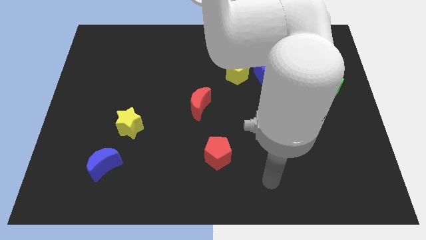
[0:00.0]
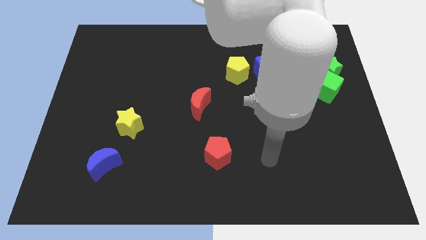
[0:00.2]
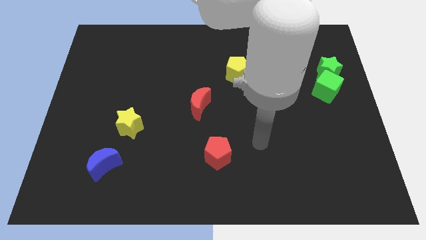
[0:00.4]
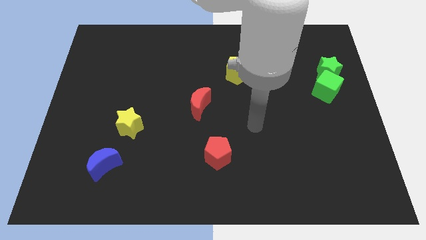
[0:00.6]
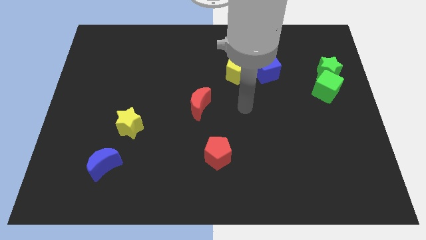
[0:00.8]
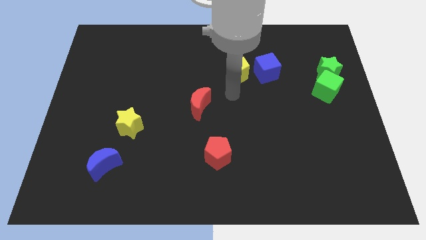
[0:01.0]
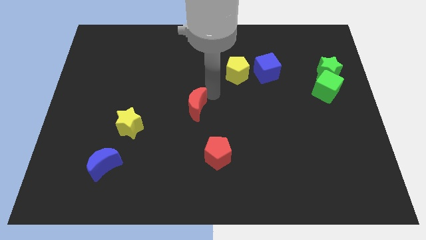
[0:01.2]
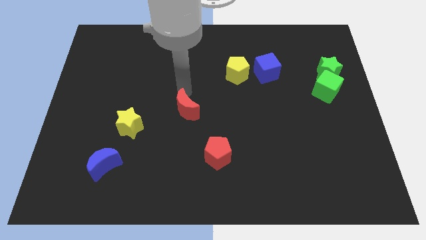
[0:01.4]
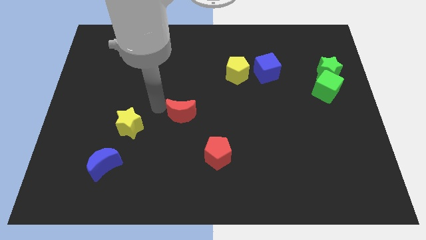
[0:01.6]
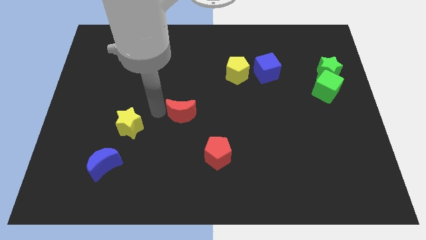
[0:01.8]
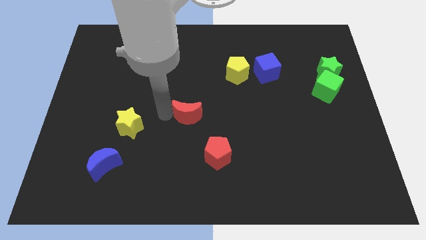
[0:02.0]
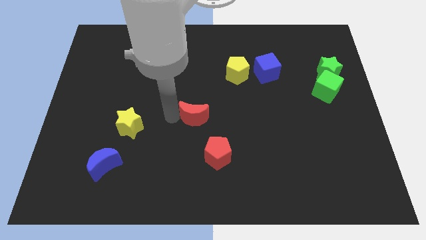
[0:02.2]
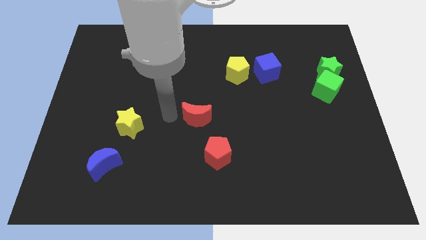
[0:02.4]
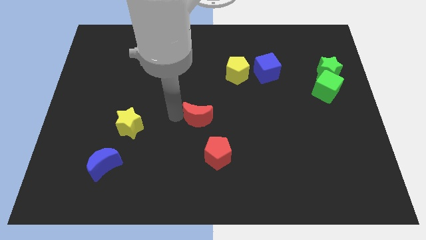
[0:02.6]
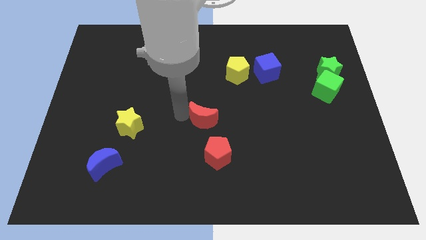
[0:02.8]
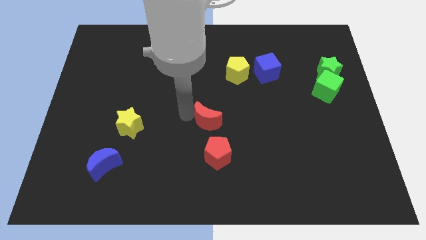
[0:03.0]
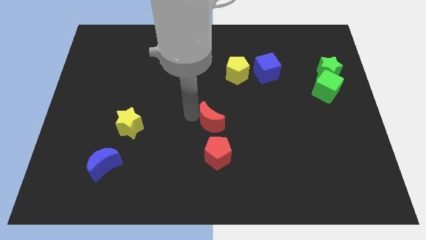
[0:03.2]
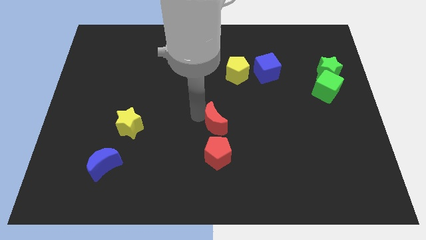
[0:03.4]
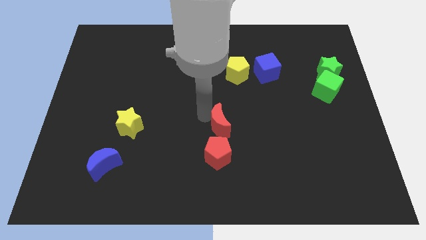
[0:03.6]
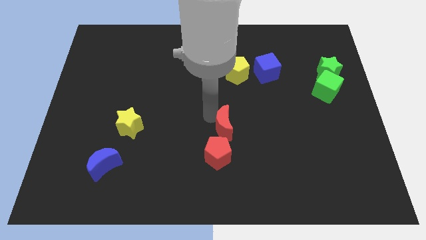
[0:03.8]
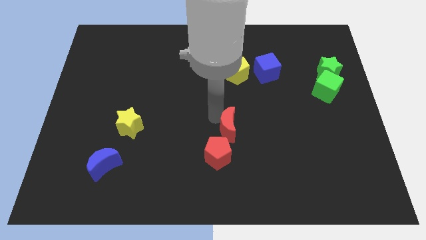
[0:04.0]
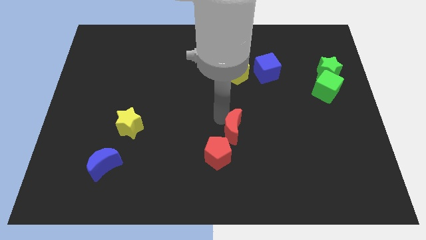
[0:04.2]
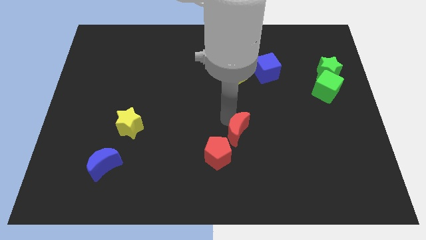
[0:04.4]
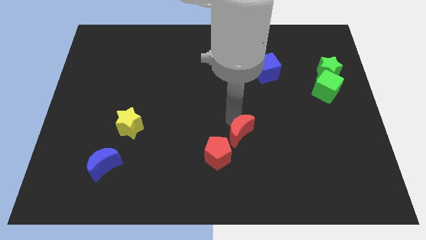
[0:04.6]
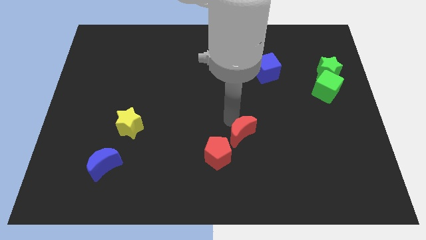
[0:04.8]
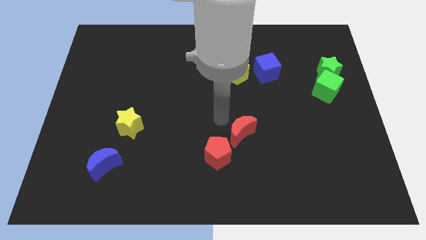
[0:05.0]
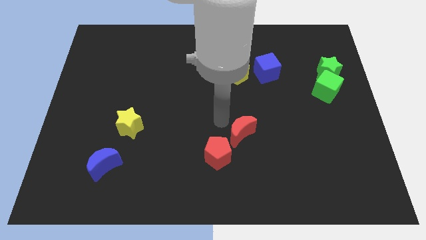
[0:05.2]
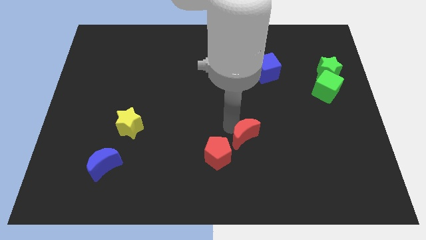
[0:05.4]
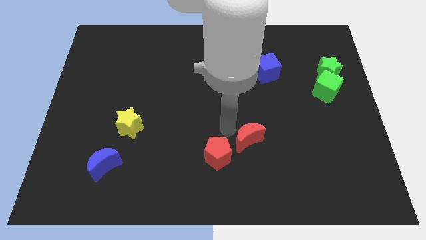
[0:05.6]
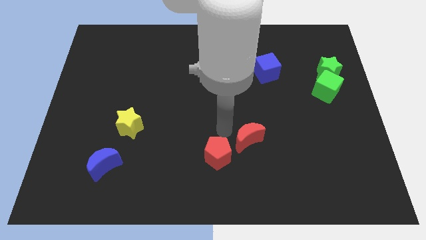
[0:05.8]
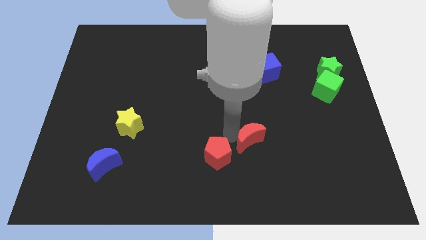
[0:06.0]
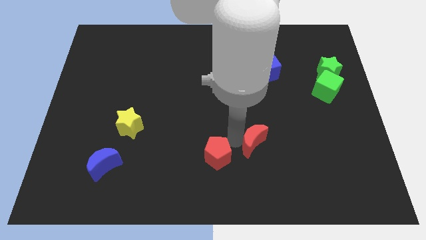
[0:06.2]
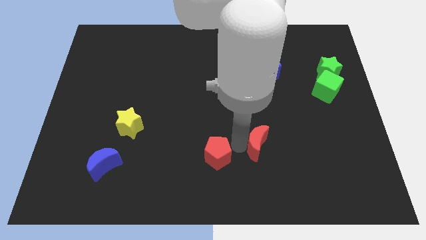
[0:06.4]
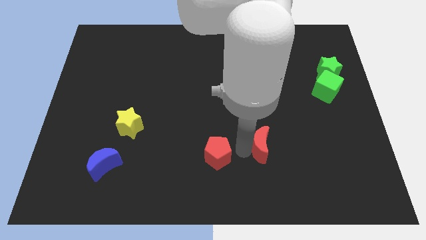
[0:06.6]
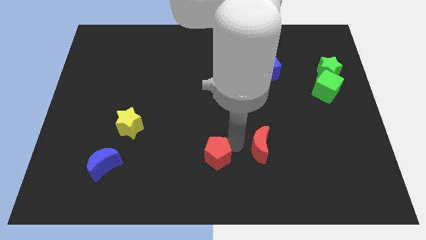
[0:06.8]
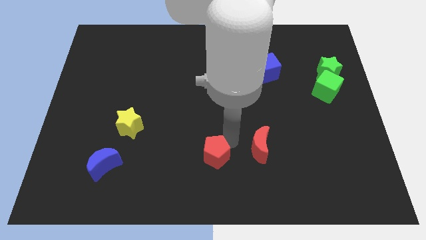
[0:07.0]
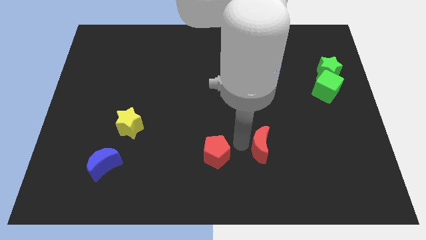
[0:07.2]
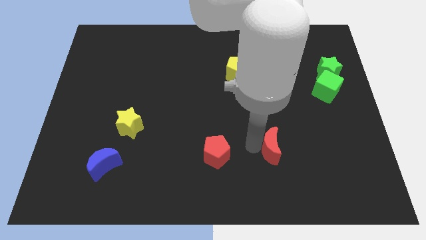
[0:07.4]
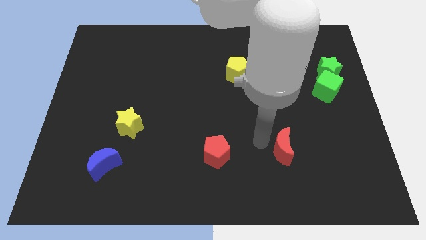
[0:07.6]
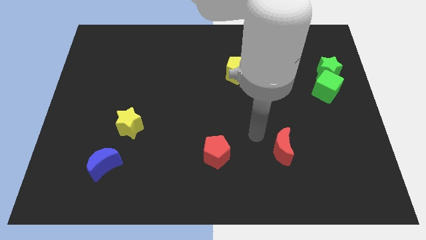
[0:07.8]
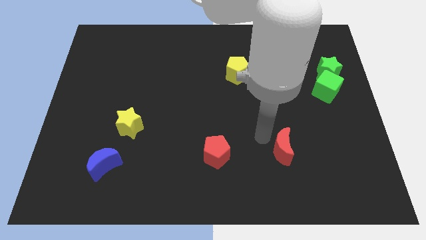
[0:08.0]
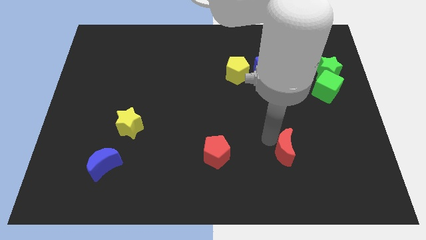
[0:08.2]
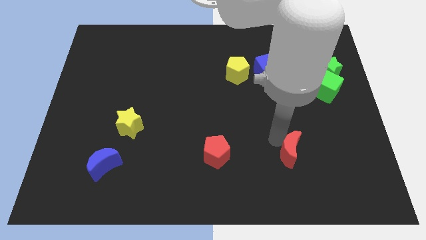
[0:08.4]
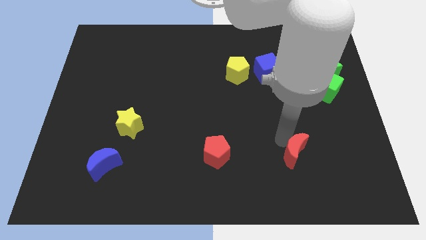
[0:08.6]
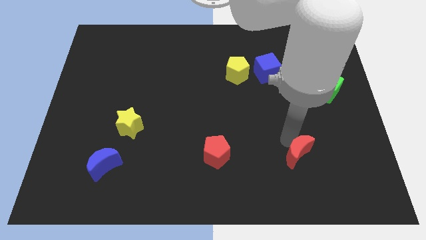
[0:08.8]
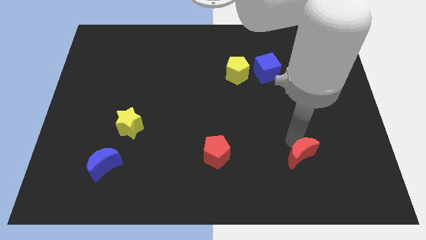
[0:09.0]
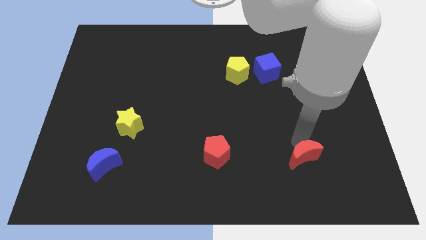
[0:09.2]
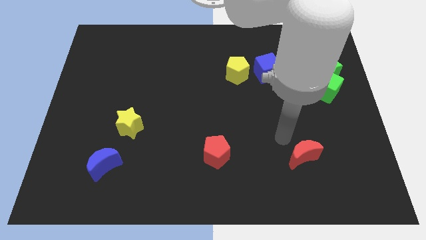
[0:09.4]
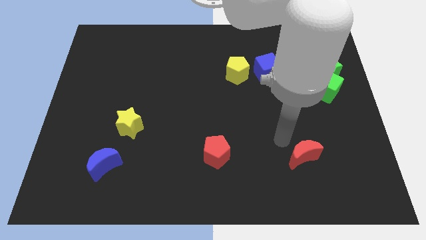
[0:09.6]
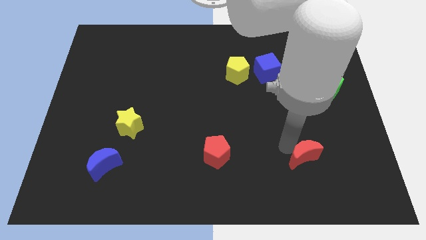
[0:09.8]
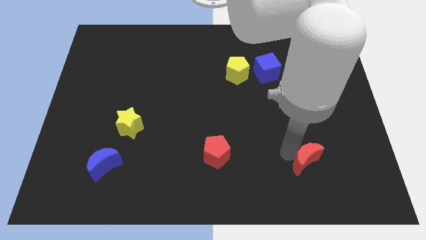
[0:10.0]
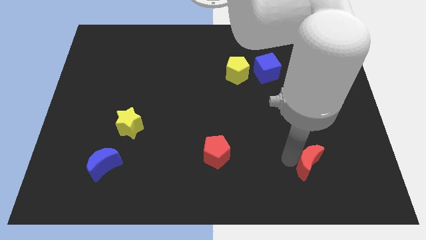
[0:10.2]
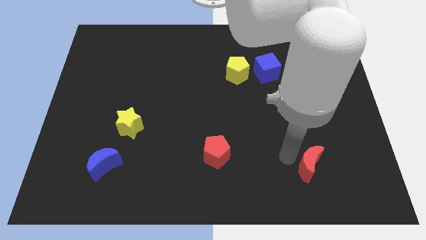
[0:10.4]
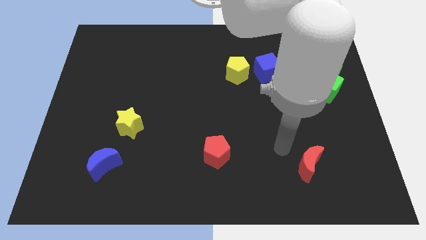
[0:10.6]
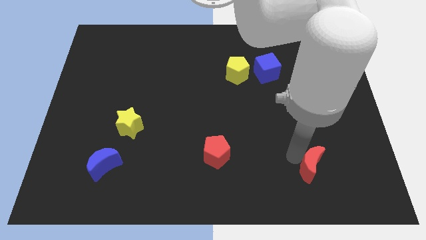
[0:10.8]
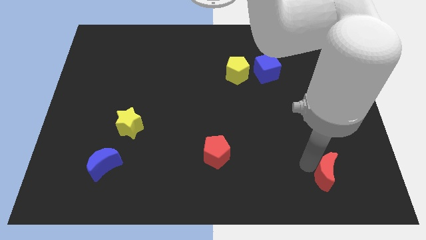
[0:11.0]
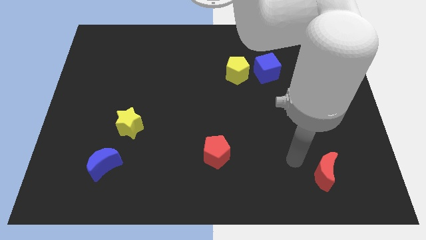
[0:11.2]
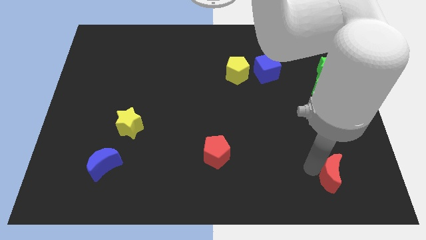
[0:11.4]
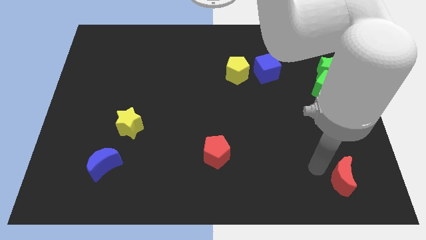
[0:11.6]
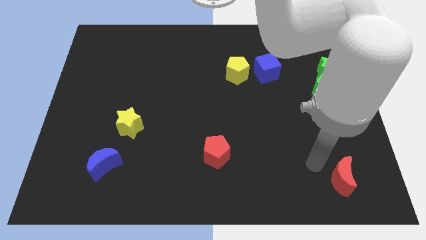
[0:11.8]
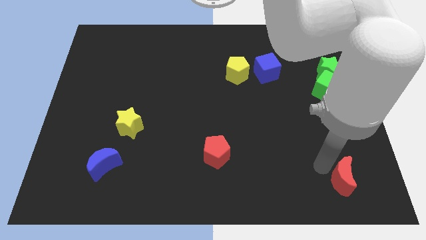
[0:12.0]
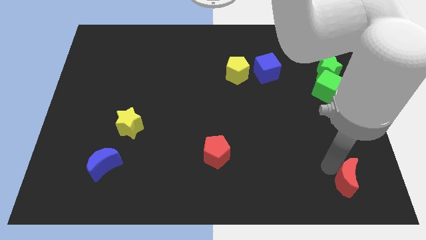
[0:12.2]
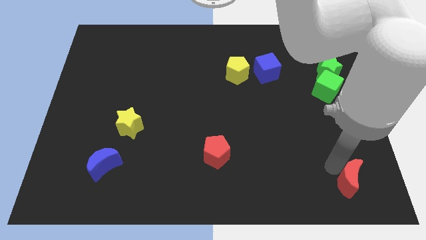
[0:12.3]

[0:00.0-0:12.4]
move the red moon to the bottom right corner
